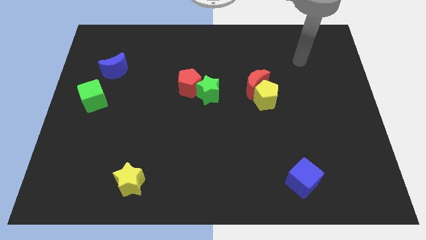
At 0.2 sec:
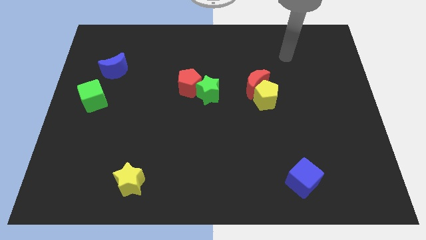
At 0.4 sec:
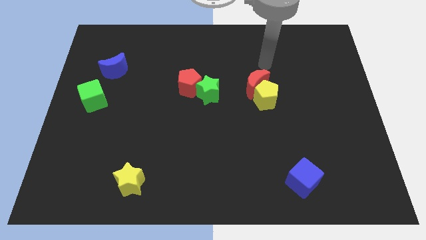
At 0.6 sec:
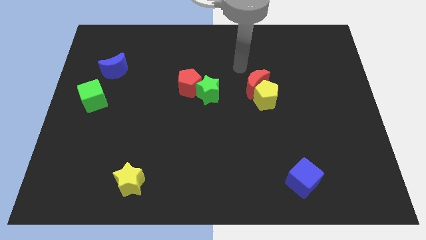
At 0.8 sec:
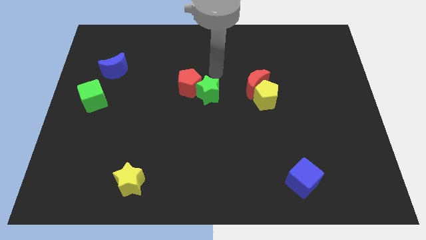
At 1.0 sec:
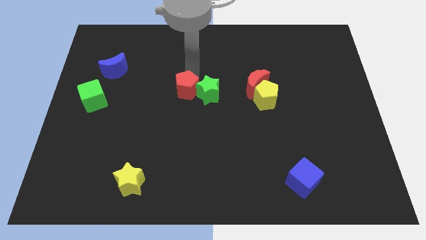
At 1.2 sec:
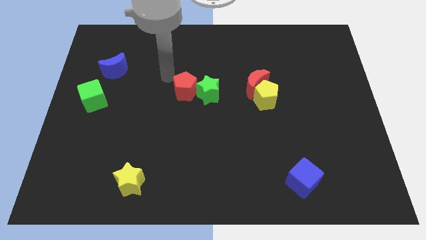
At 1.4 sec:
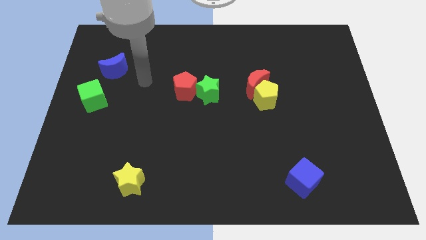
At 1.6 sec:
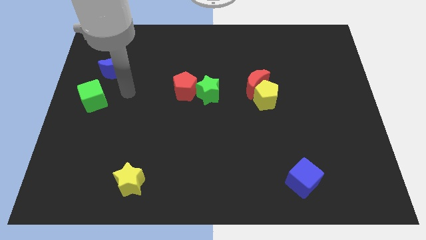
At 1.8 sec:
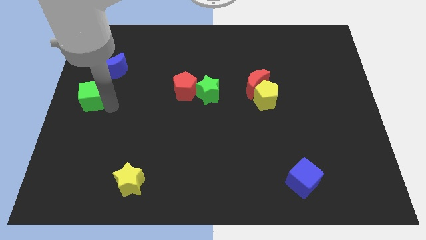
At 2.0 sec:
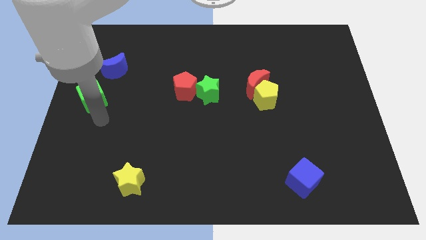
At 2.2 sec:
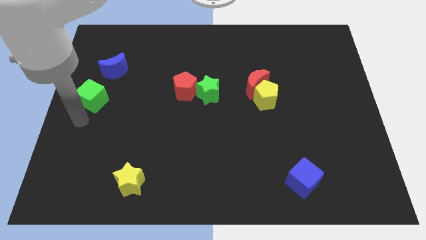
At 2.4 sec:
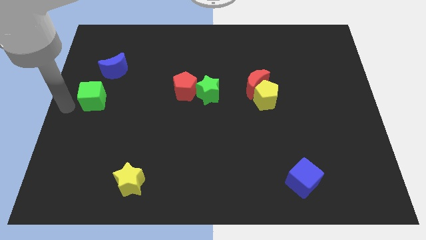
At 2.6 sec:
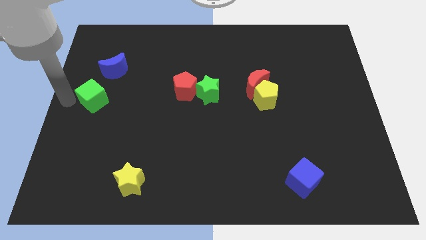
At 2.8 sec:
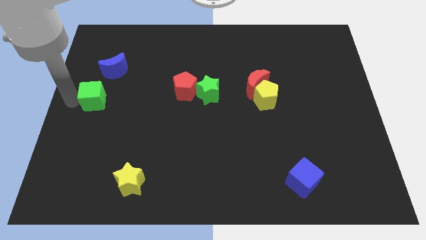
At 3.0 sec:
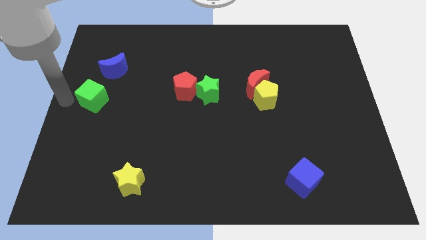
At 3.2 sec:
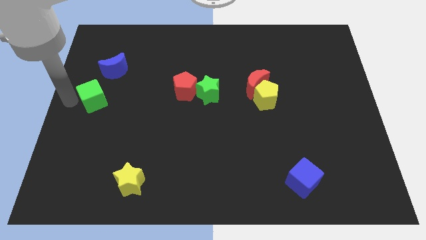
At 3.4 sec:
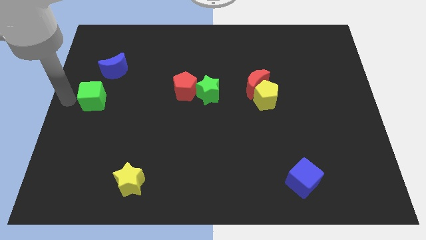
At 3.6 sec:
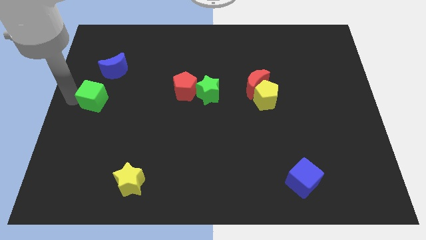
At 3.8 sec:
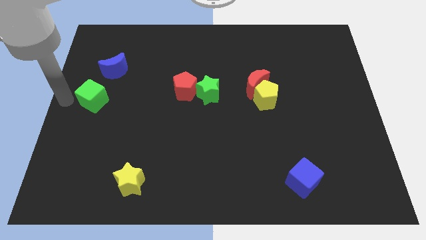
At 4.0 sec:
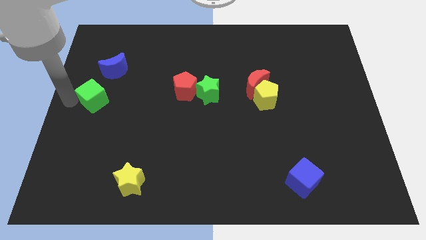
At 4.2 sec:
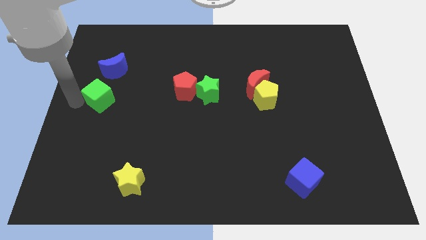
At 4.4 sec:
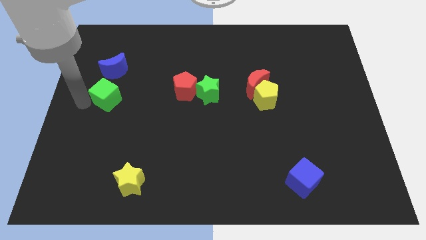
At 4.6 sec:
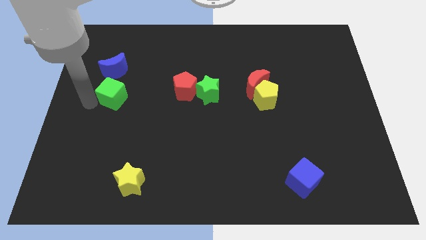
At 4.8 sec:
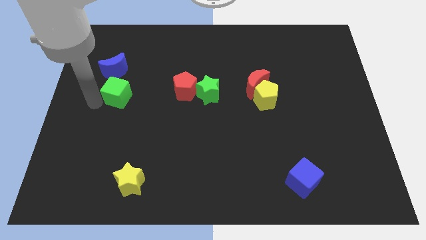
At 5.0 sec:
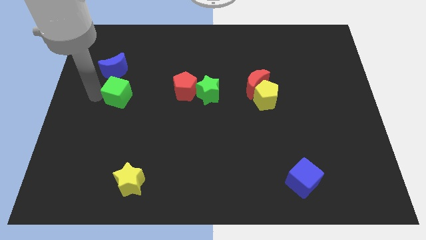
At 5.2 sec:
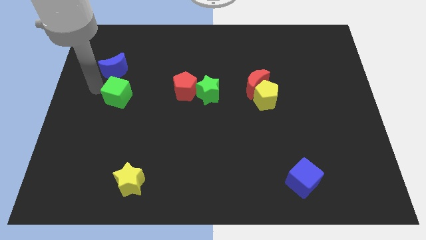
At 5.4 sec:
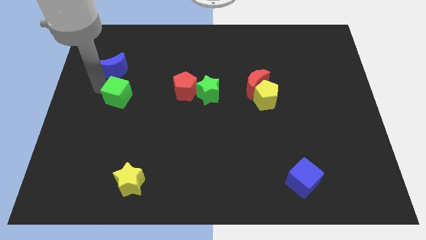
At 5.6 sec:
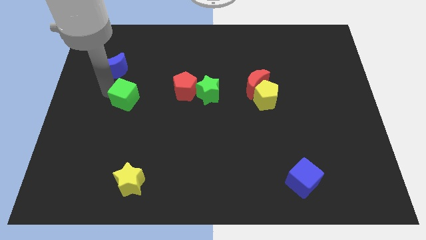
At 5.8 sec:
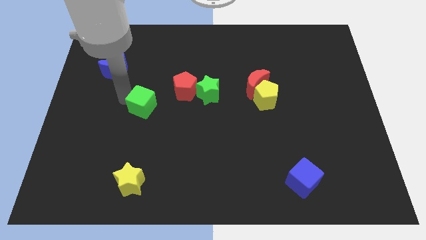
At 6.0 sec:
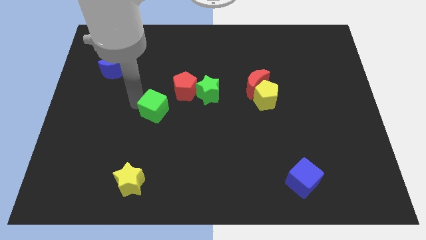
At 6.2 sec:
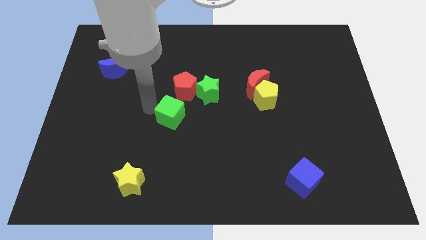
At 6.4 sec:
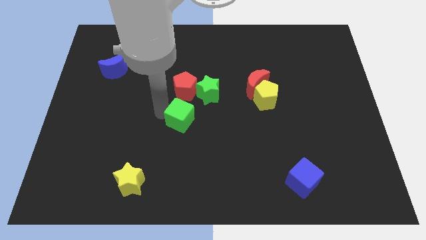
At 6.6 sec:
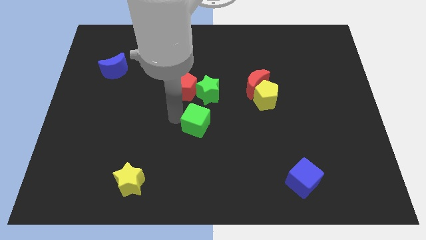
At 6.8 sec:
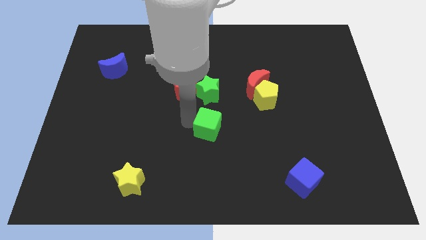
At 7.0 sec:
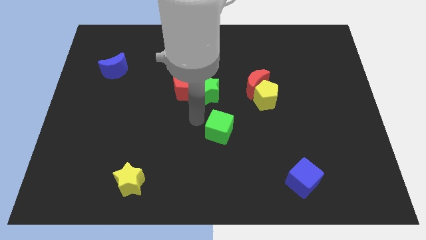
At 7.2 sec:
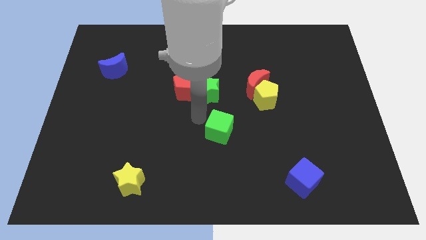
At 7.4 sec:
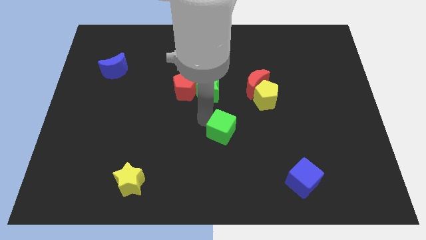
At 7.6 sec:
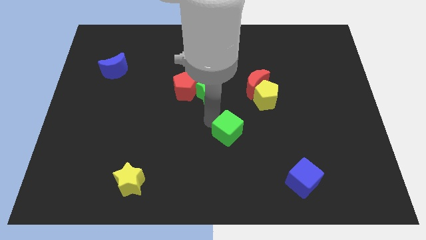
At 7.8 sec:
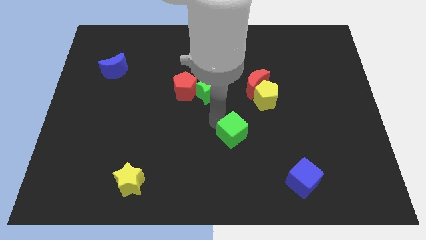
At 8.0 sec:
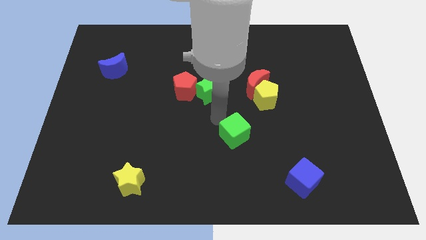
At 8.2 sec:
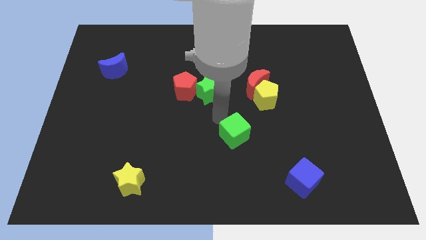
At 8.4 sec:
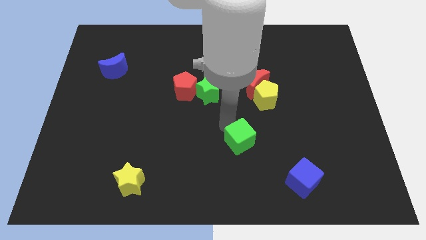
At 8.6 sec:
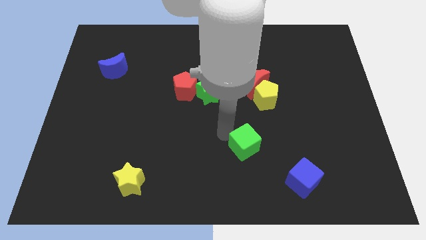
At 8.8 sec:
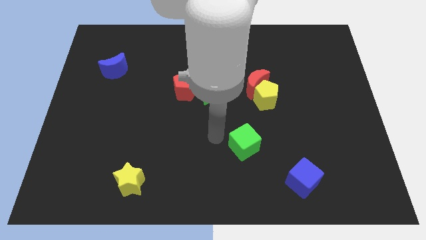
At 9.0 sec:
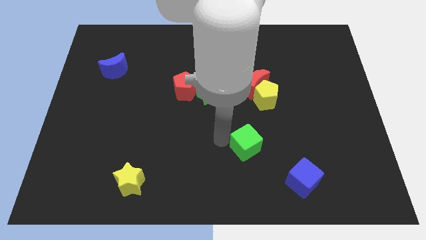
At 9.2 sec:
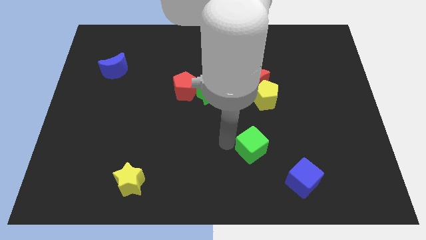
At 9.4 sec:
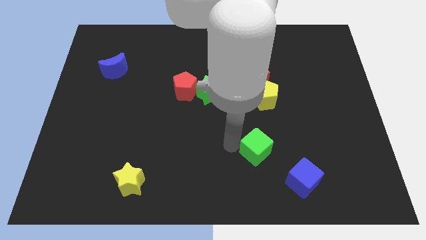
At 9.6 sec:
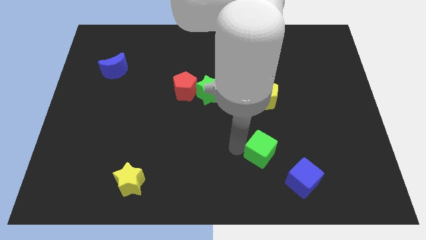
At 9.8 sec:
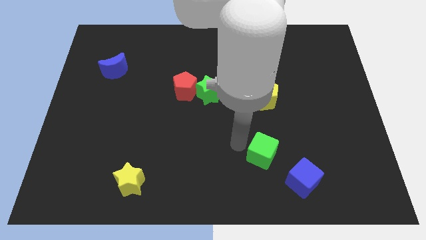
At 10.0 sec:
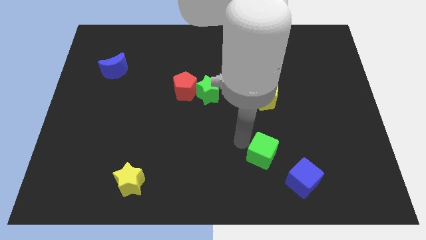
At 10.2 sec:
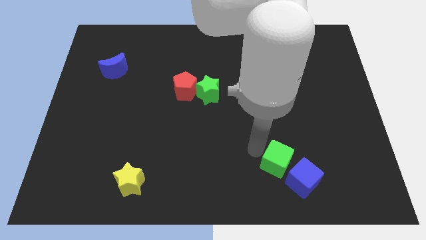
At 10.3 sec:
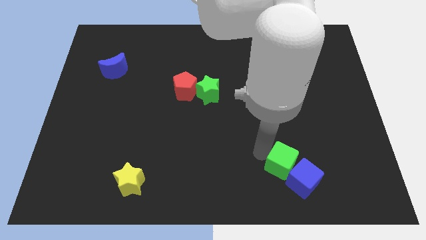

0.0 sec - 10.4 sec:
put the green cube close to the blue cube

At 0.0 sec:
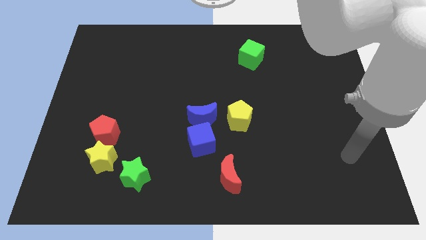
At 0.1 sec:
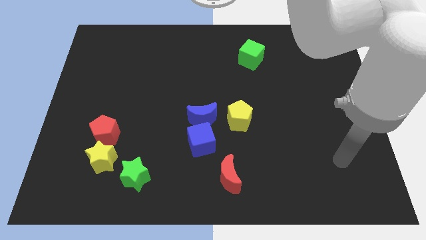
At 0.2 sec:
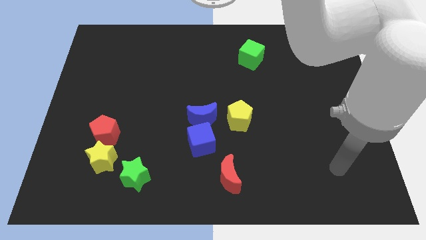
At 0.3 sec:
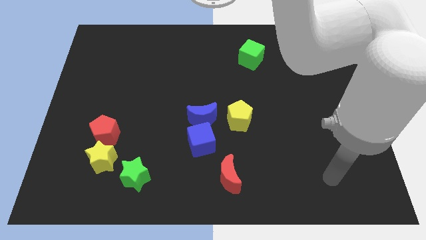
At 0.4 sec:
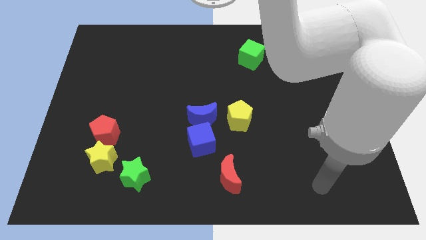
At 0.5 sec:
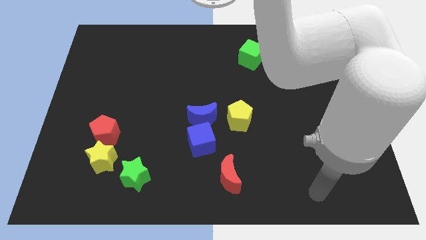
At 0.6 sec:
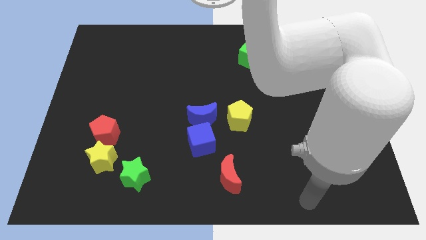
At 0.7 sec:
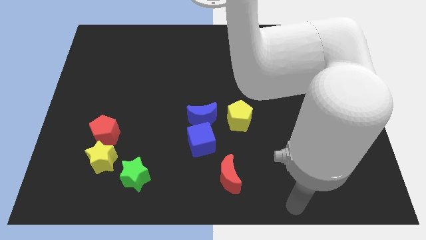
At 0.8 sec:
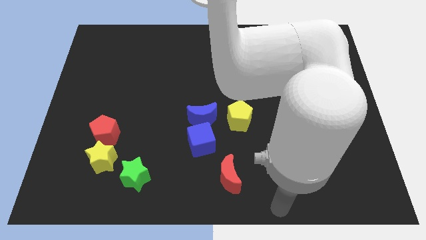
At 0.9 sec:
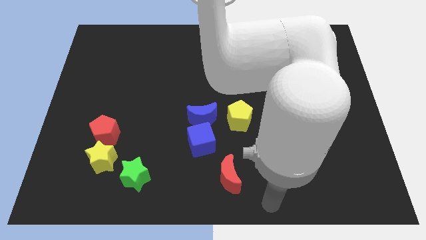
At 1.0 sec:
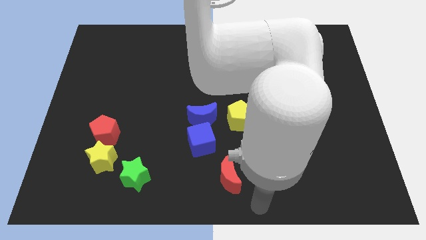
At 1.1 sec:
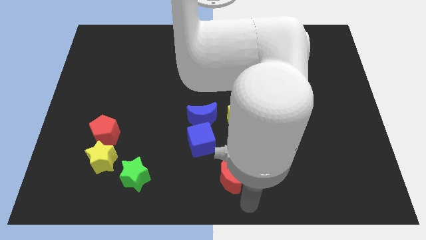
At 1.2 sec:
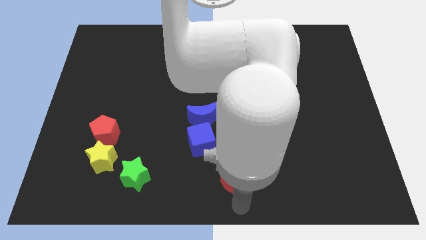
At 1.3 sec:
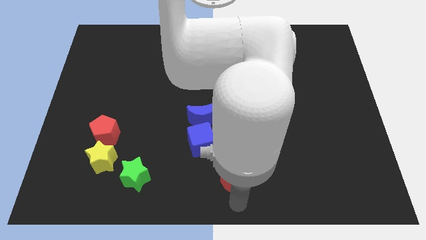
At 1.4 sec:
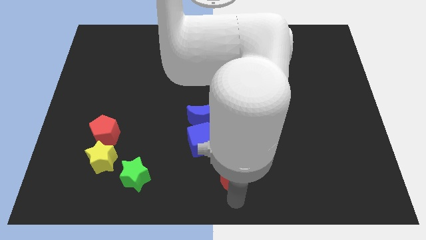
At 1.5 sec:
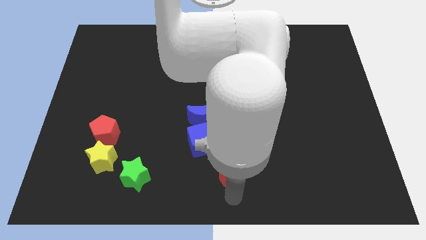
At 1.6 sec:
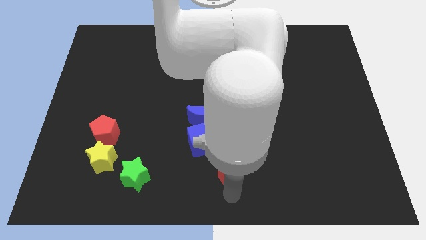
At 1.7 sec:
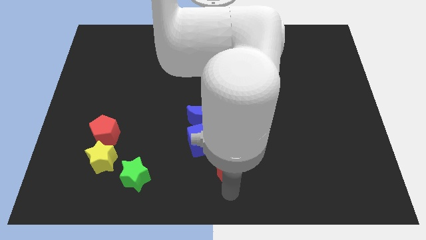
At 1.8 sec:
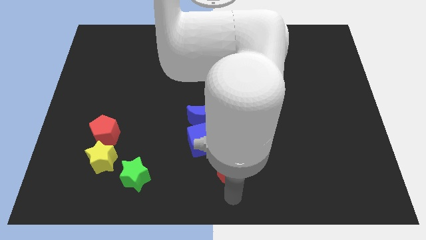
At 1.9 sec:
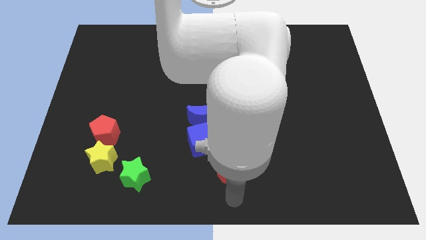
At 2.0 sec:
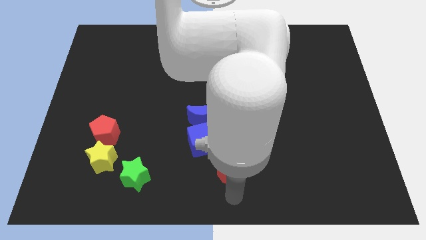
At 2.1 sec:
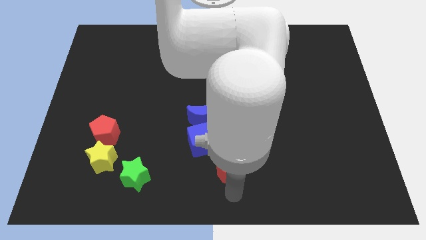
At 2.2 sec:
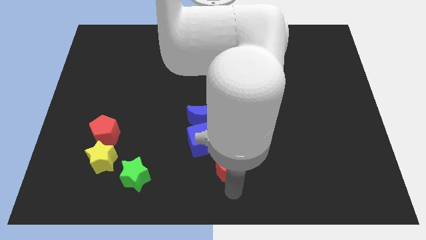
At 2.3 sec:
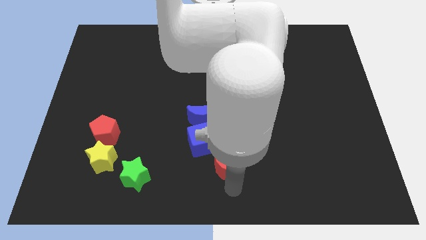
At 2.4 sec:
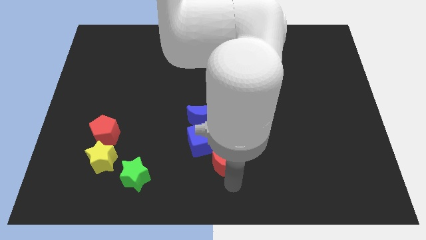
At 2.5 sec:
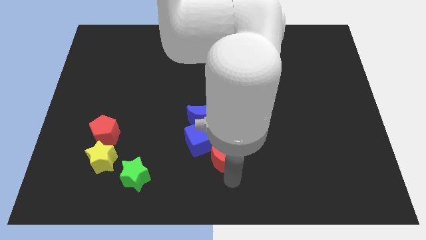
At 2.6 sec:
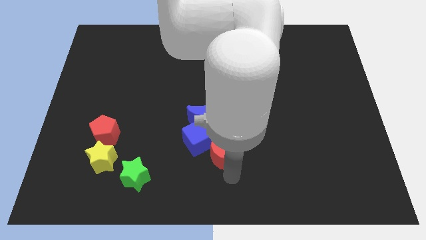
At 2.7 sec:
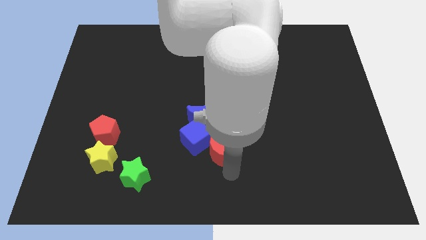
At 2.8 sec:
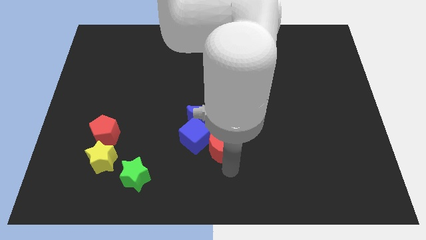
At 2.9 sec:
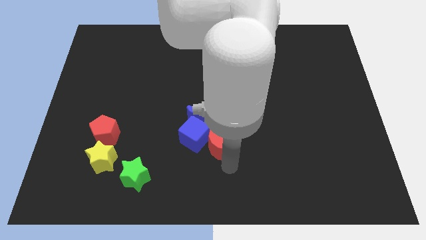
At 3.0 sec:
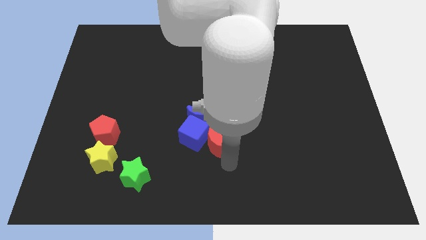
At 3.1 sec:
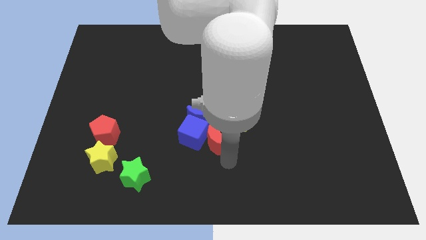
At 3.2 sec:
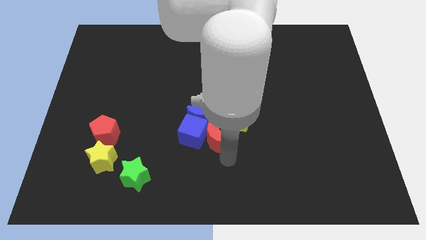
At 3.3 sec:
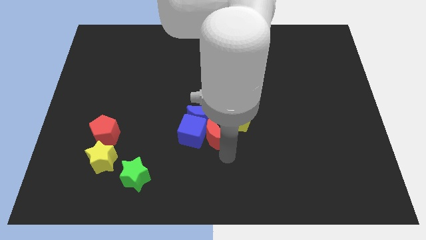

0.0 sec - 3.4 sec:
move the red moon towards the blue moon
